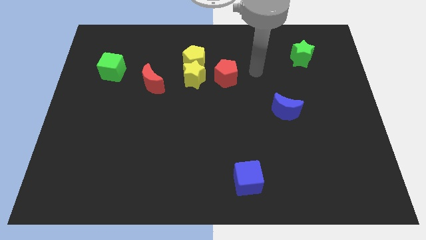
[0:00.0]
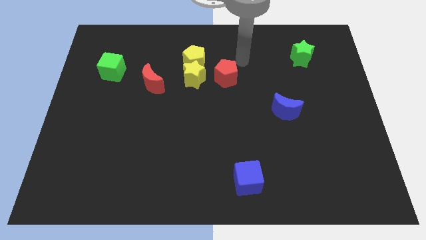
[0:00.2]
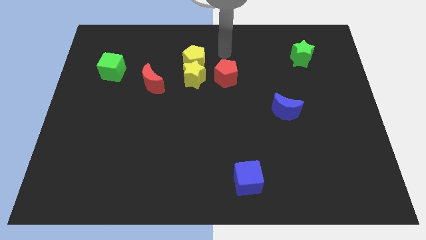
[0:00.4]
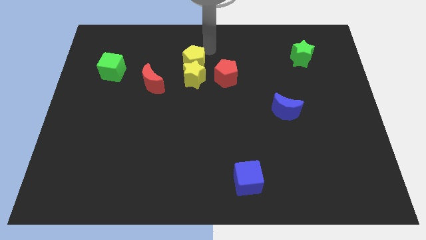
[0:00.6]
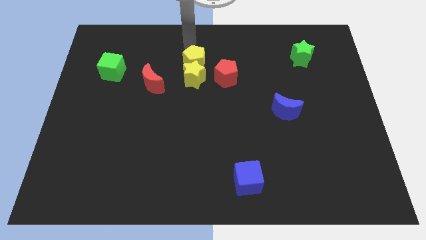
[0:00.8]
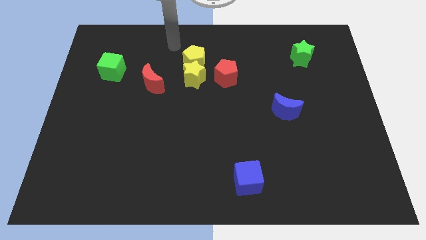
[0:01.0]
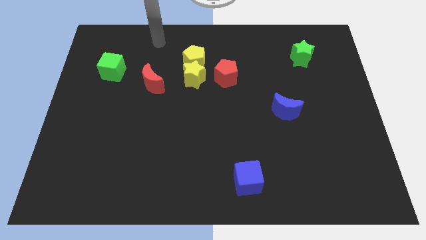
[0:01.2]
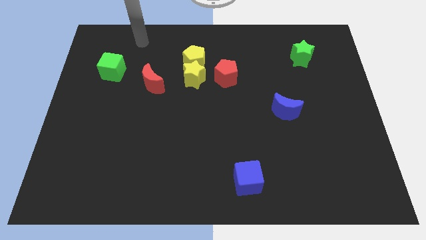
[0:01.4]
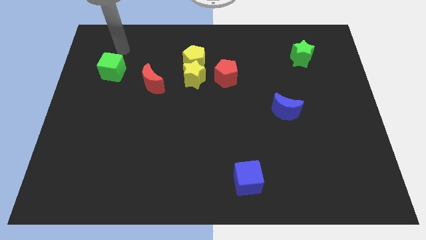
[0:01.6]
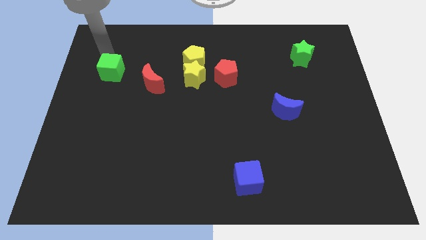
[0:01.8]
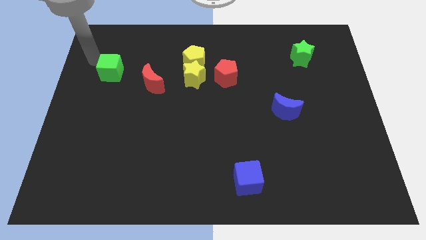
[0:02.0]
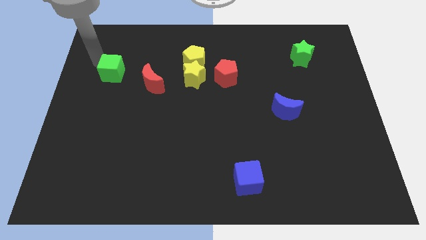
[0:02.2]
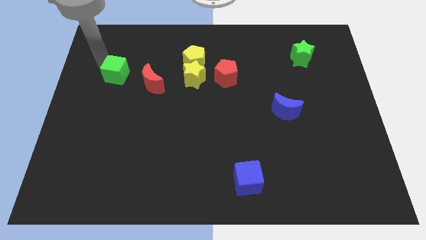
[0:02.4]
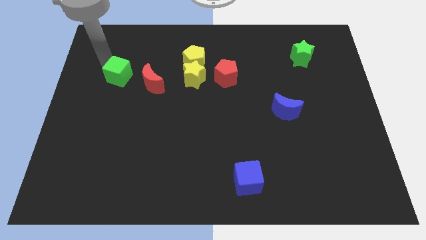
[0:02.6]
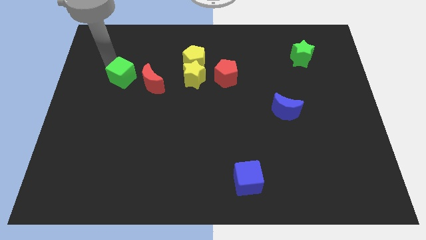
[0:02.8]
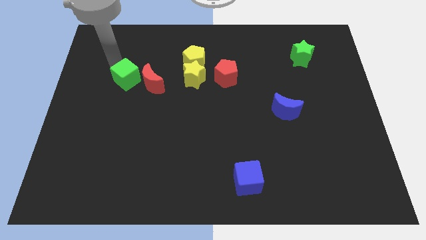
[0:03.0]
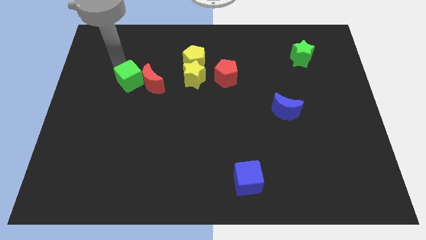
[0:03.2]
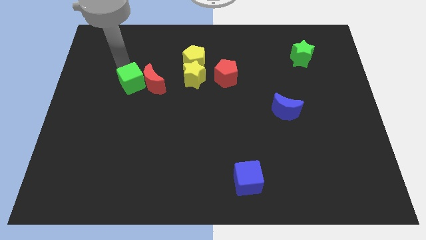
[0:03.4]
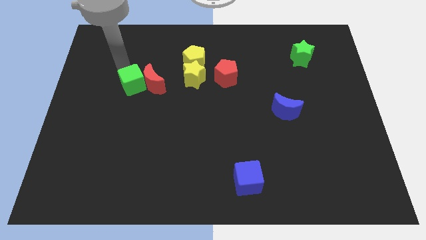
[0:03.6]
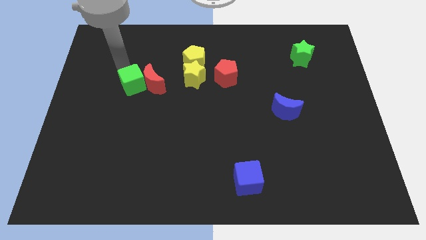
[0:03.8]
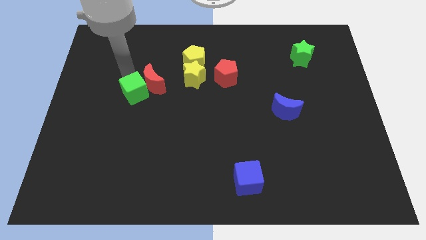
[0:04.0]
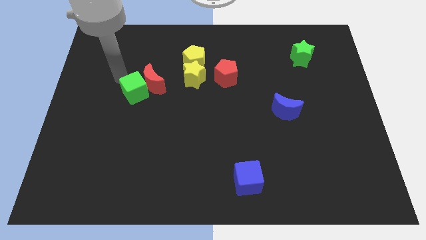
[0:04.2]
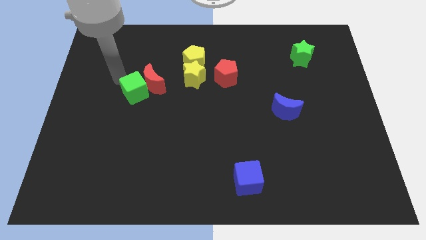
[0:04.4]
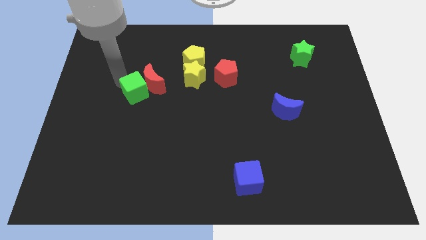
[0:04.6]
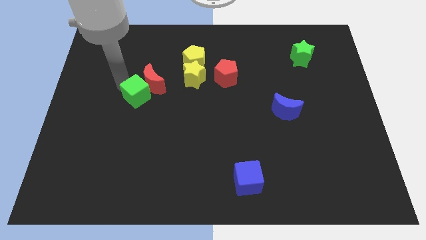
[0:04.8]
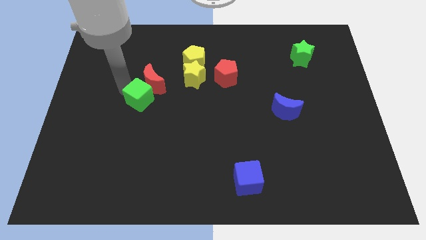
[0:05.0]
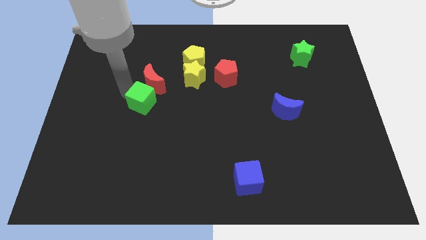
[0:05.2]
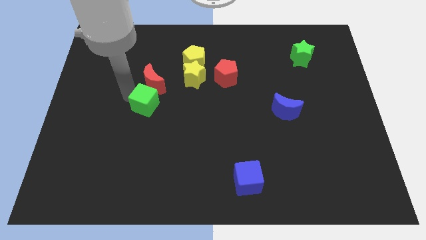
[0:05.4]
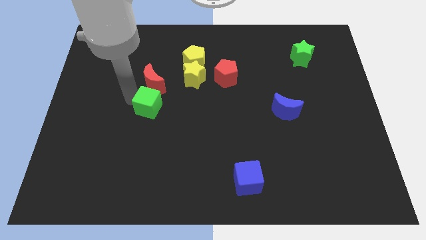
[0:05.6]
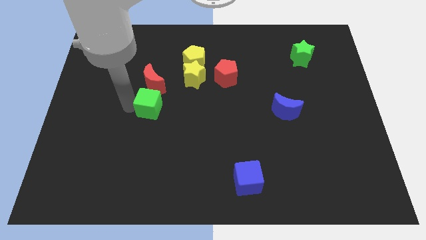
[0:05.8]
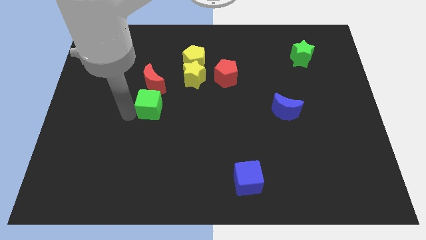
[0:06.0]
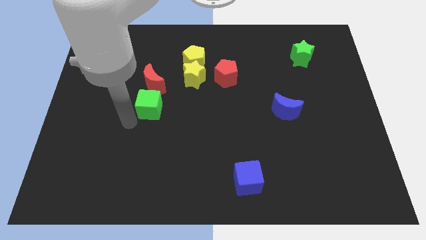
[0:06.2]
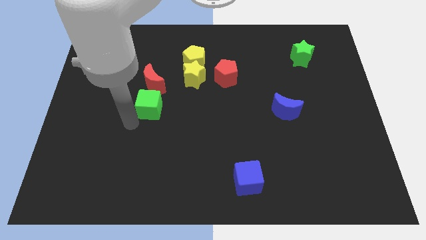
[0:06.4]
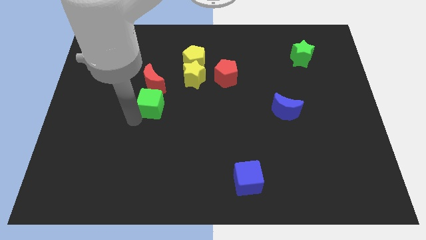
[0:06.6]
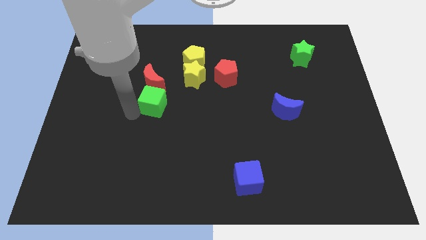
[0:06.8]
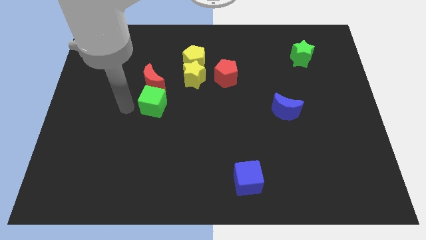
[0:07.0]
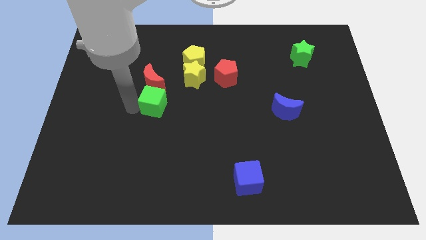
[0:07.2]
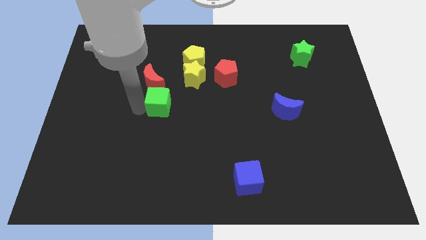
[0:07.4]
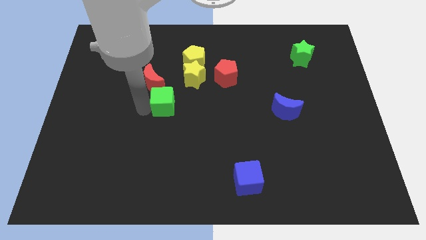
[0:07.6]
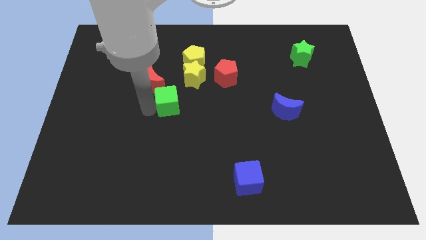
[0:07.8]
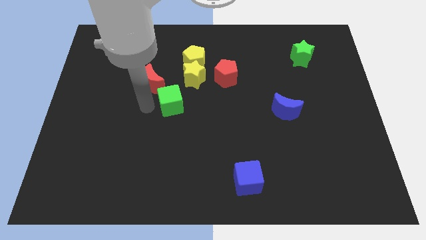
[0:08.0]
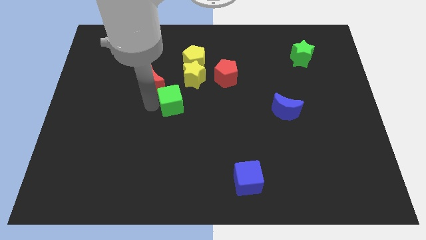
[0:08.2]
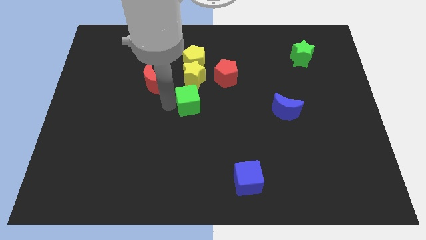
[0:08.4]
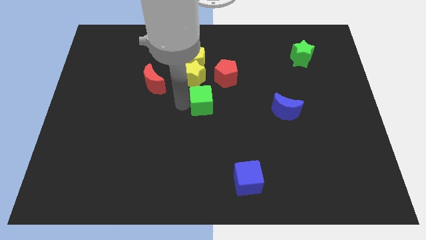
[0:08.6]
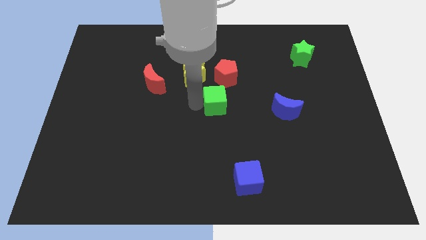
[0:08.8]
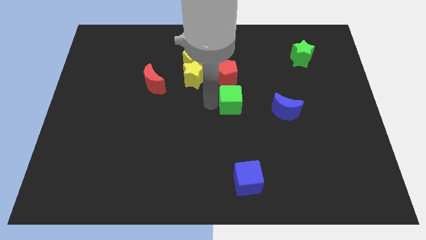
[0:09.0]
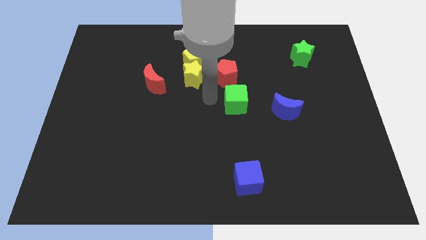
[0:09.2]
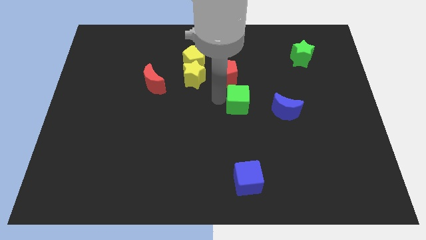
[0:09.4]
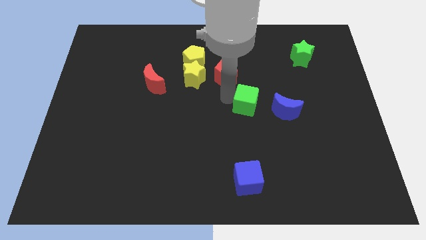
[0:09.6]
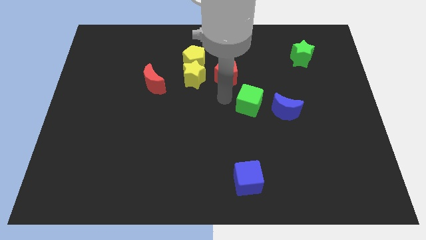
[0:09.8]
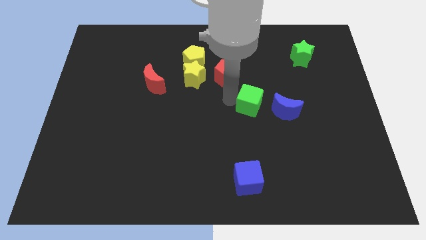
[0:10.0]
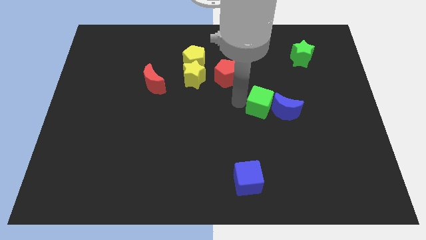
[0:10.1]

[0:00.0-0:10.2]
slide the green cube next to the blue moon
